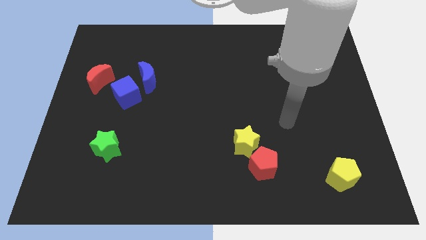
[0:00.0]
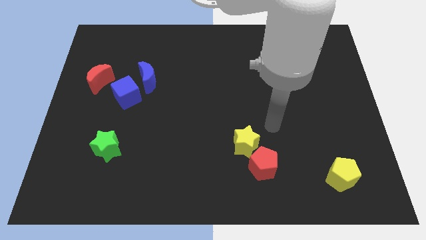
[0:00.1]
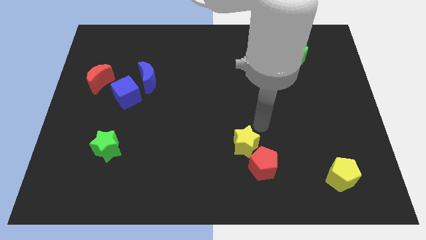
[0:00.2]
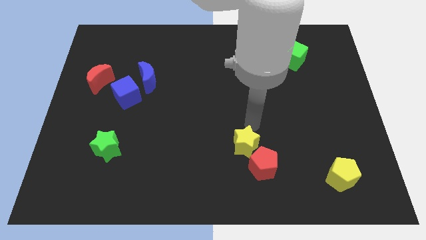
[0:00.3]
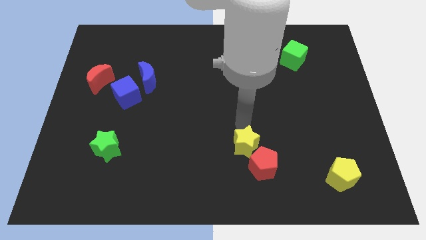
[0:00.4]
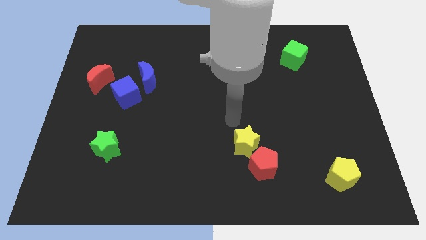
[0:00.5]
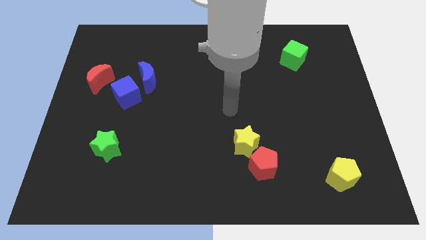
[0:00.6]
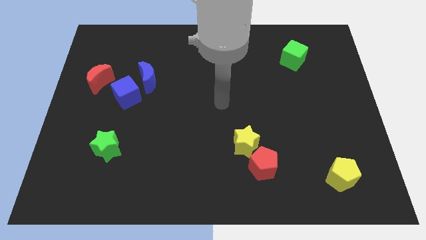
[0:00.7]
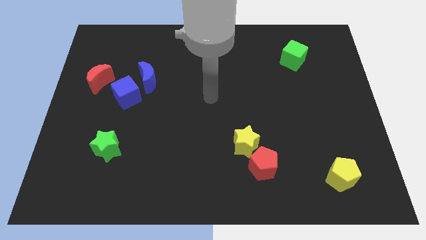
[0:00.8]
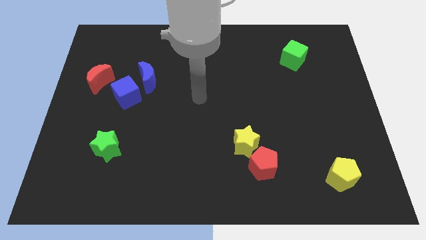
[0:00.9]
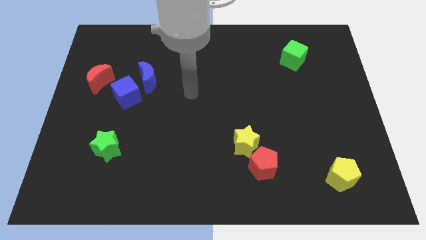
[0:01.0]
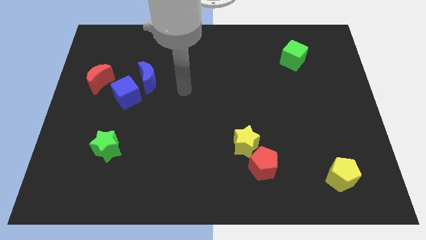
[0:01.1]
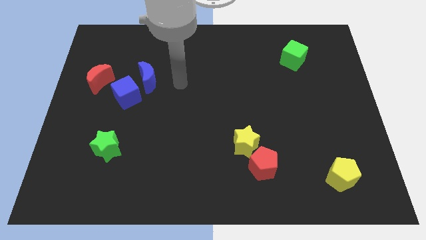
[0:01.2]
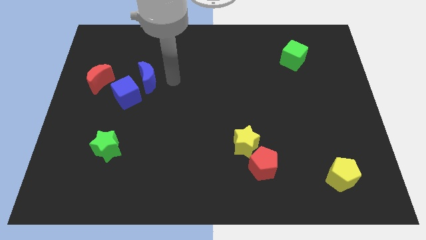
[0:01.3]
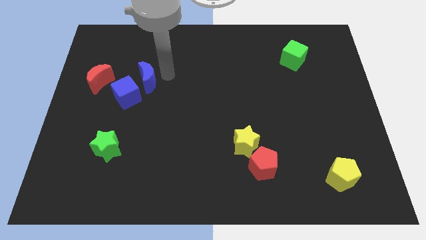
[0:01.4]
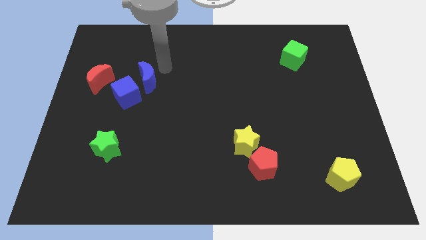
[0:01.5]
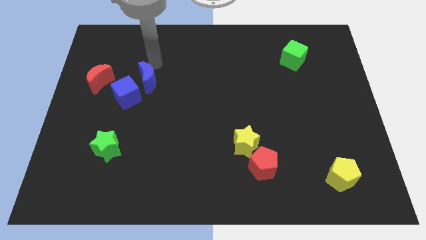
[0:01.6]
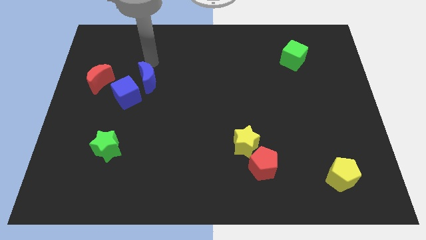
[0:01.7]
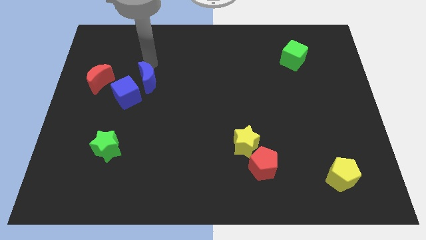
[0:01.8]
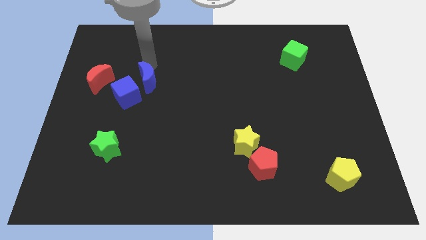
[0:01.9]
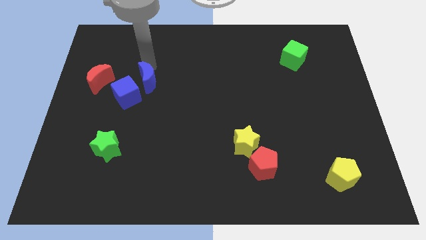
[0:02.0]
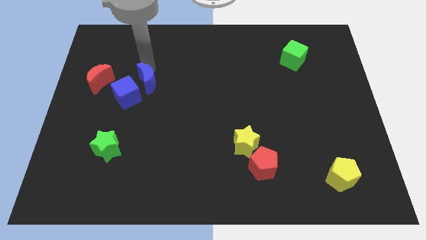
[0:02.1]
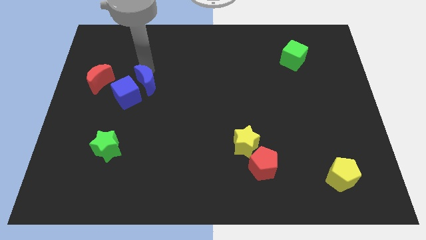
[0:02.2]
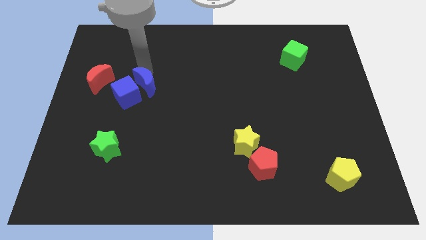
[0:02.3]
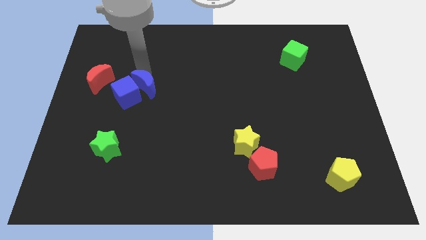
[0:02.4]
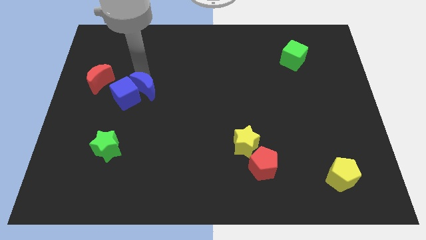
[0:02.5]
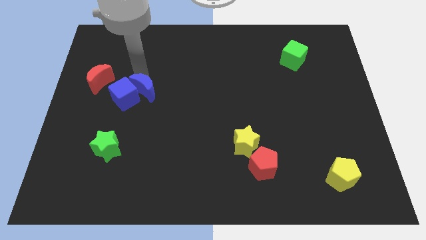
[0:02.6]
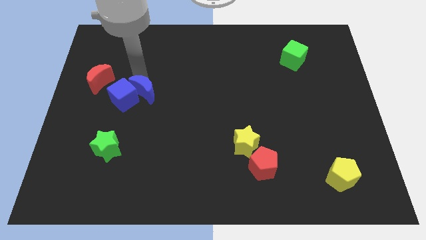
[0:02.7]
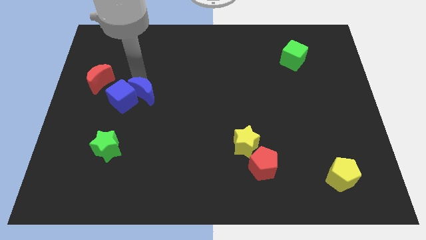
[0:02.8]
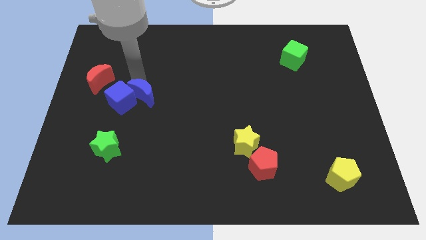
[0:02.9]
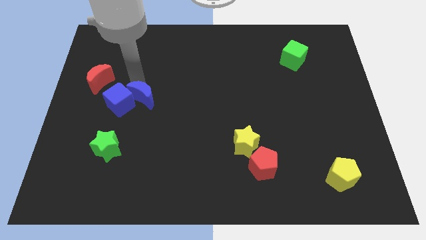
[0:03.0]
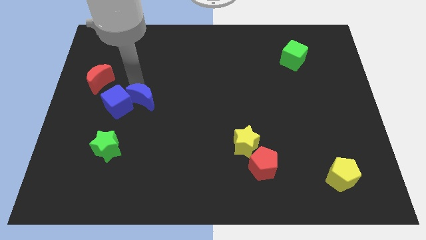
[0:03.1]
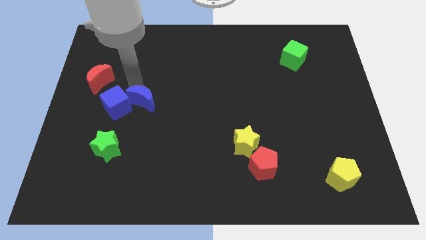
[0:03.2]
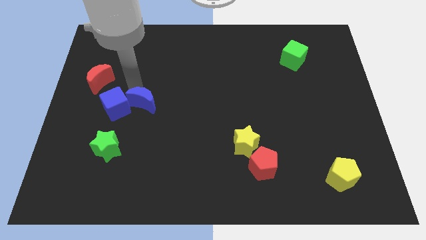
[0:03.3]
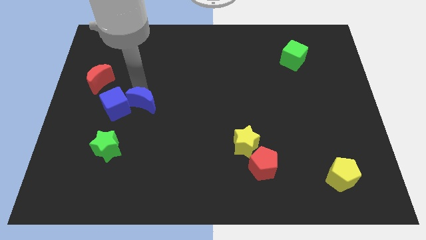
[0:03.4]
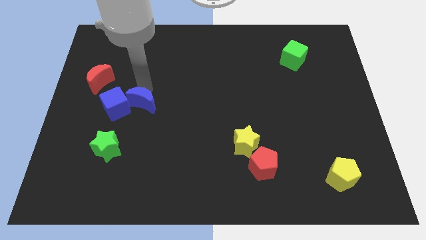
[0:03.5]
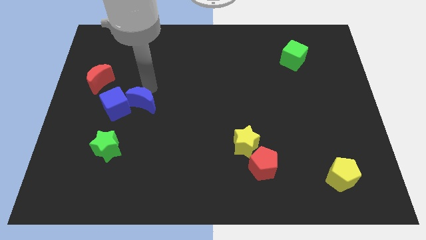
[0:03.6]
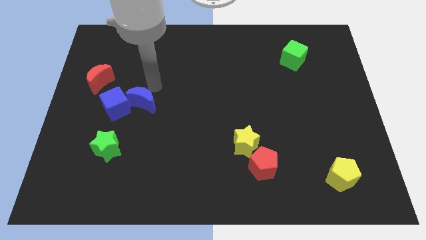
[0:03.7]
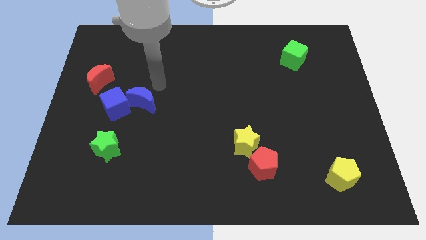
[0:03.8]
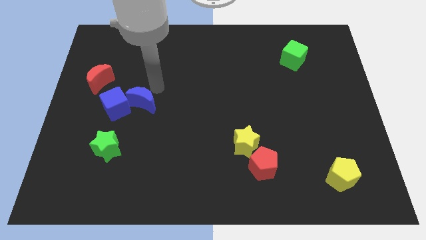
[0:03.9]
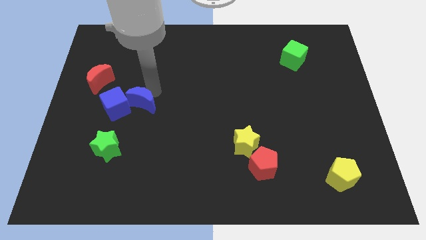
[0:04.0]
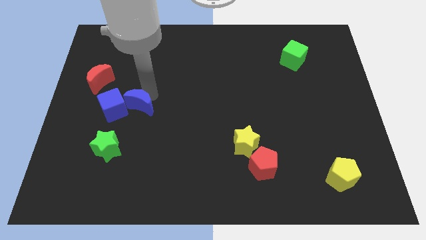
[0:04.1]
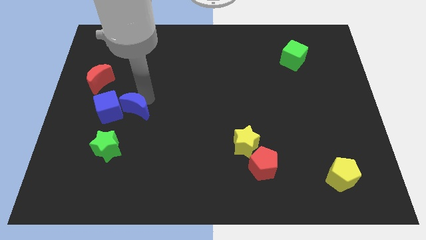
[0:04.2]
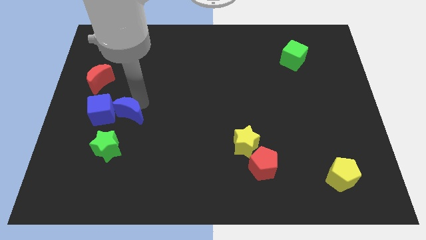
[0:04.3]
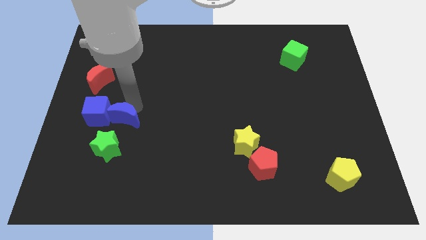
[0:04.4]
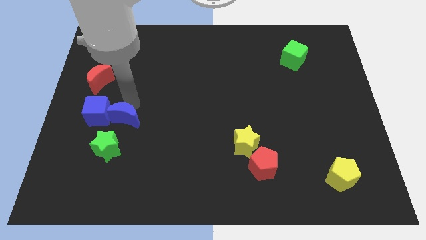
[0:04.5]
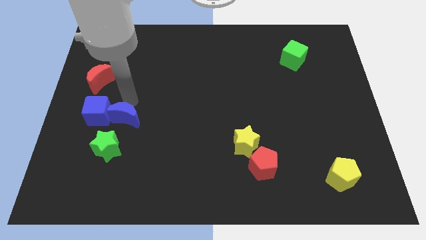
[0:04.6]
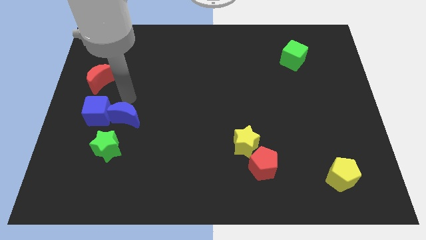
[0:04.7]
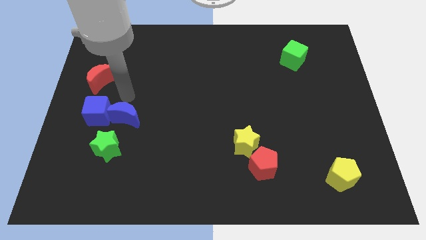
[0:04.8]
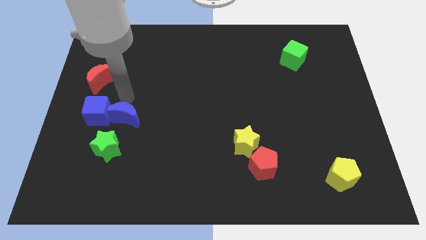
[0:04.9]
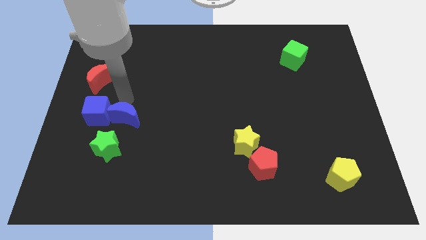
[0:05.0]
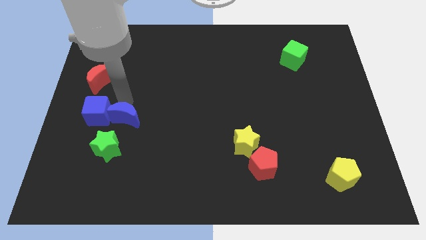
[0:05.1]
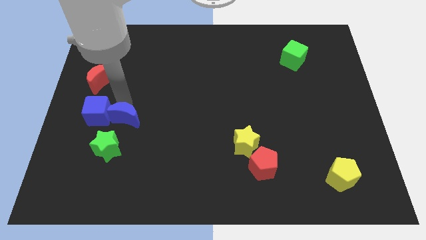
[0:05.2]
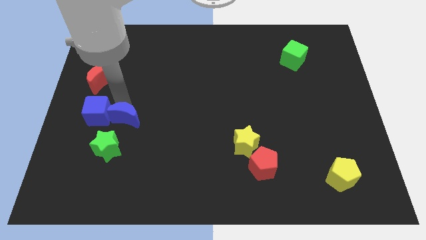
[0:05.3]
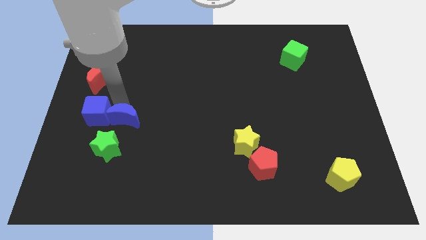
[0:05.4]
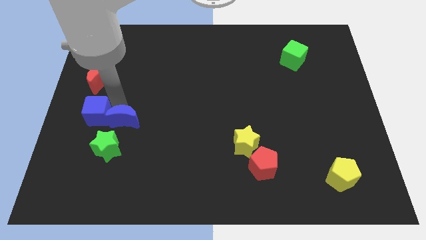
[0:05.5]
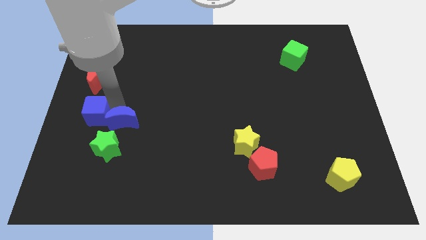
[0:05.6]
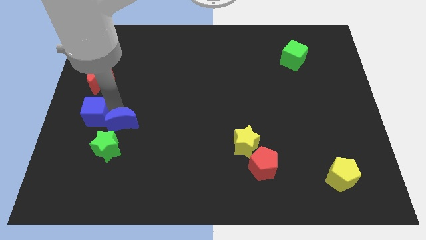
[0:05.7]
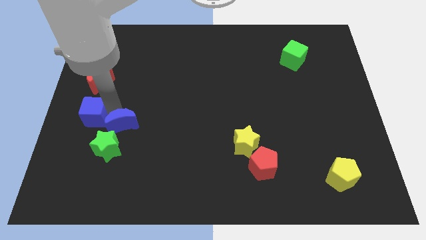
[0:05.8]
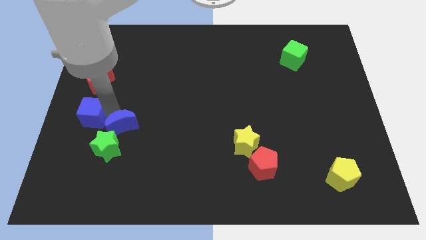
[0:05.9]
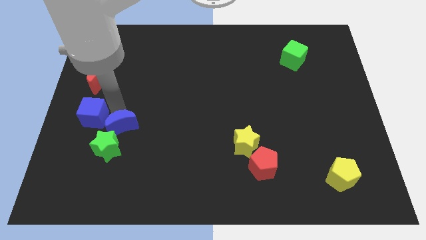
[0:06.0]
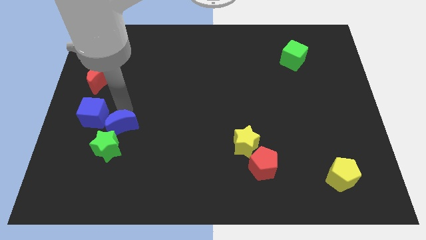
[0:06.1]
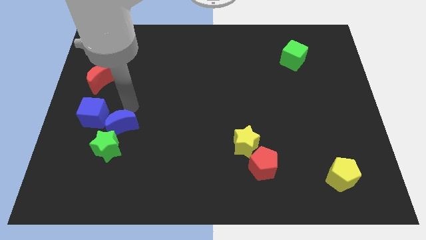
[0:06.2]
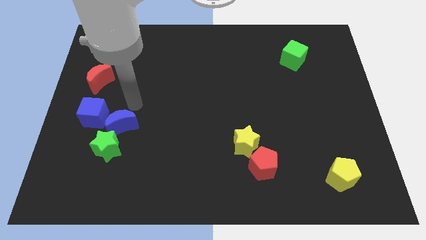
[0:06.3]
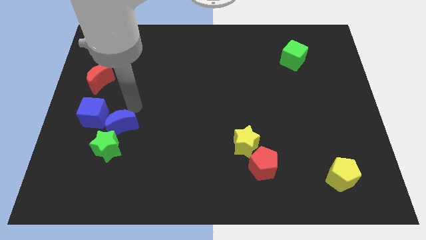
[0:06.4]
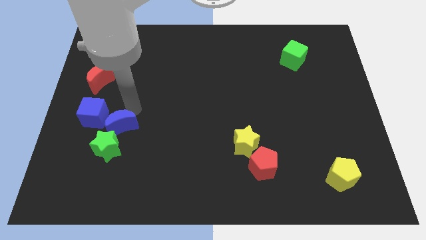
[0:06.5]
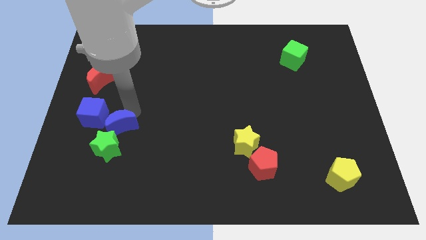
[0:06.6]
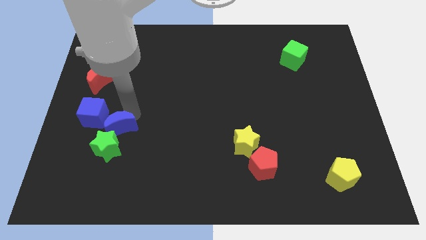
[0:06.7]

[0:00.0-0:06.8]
put the blue moon close to the green star

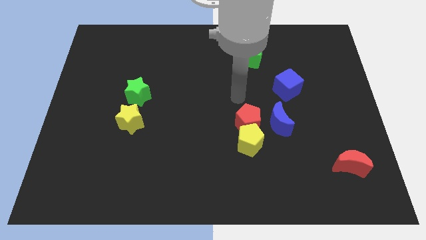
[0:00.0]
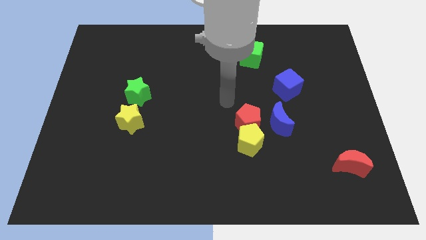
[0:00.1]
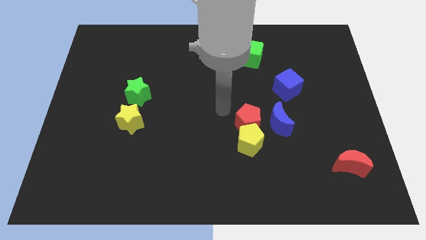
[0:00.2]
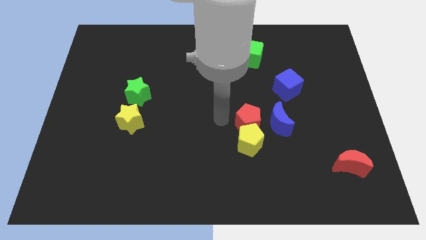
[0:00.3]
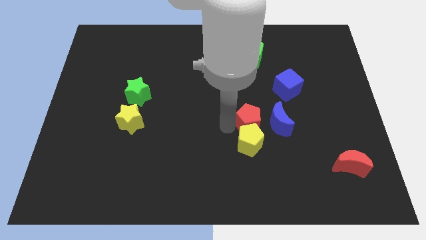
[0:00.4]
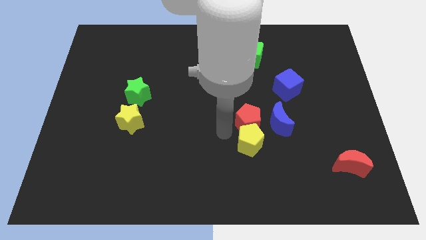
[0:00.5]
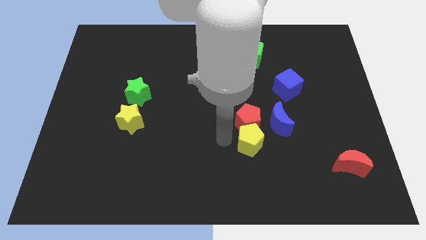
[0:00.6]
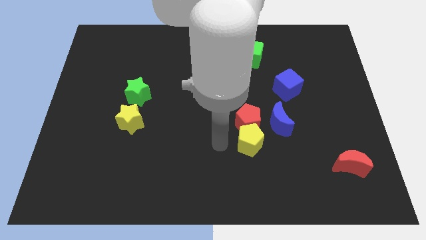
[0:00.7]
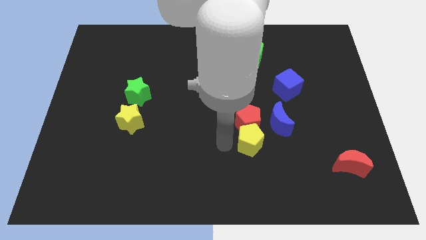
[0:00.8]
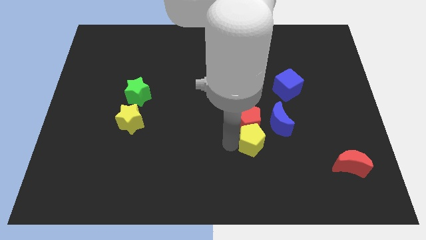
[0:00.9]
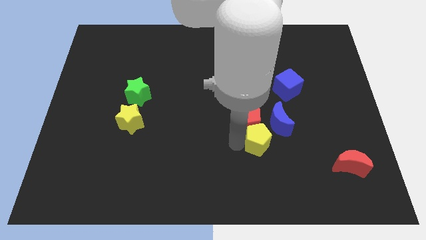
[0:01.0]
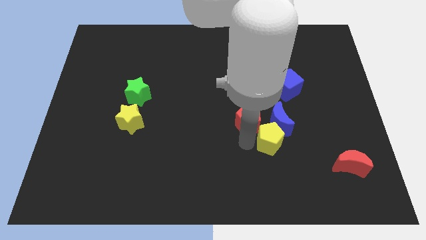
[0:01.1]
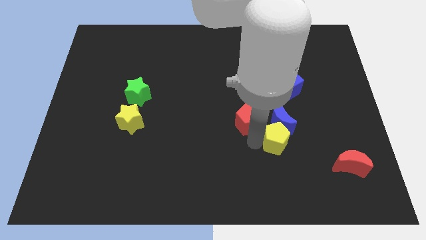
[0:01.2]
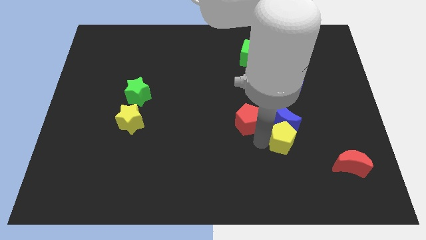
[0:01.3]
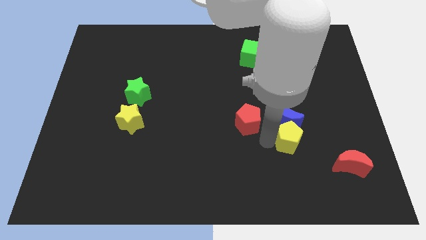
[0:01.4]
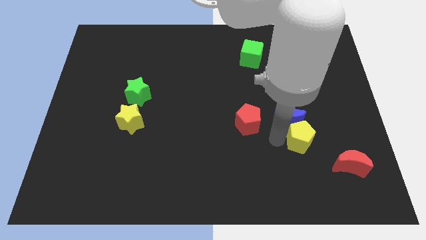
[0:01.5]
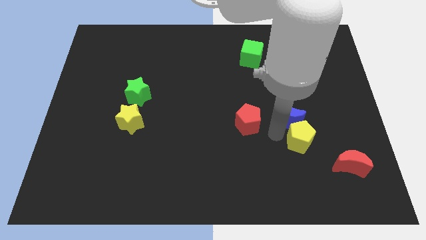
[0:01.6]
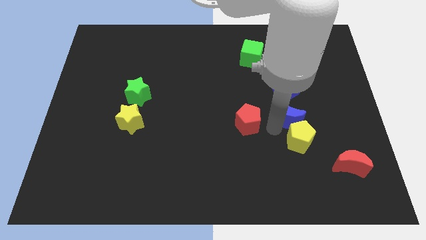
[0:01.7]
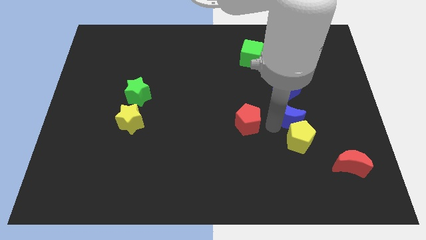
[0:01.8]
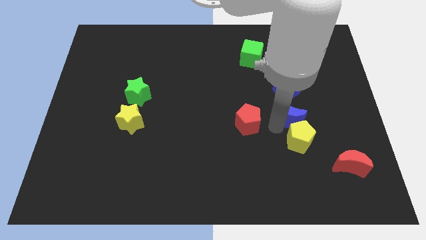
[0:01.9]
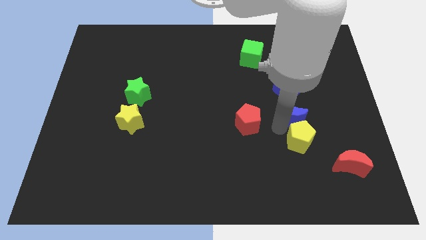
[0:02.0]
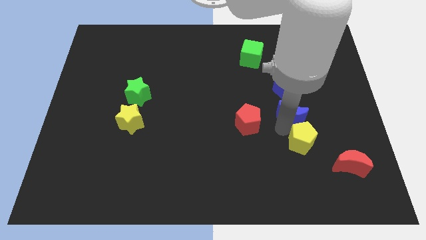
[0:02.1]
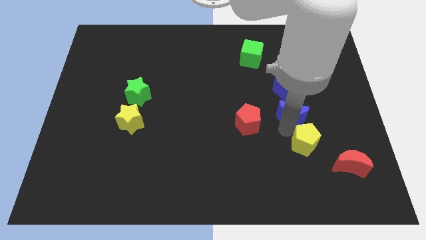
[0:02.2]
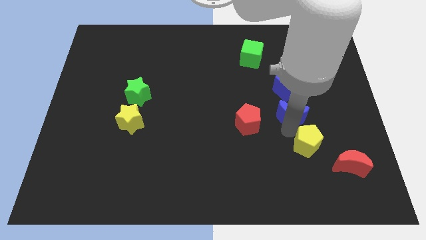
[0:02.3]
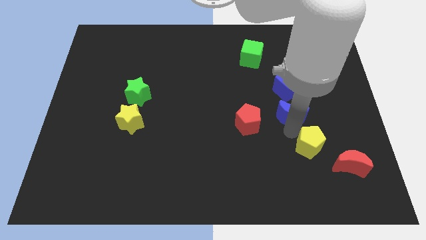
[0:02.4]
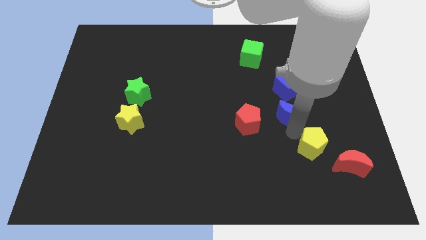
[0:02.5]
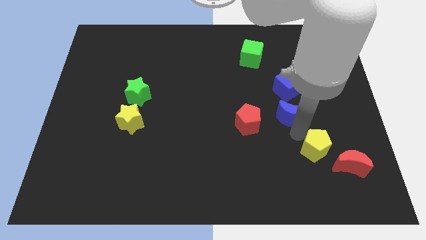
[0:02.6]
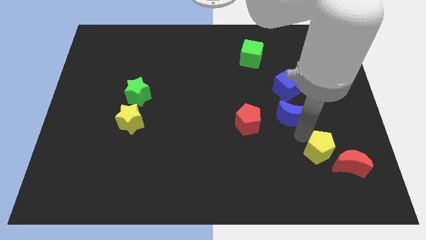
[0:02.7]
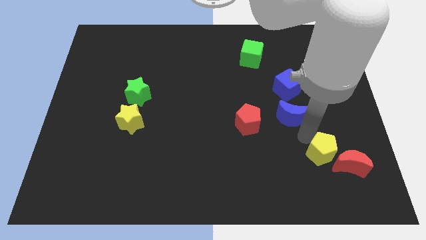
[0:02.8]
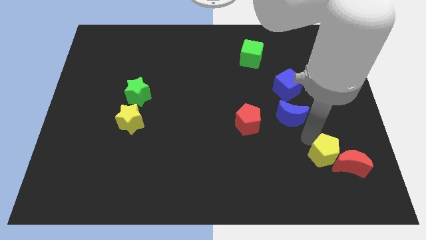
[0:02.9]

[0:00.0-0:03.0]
move the yellow pentagon next to the red moon
